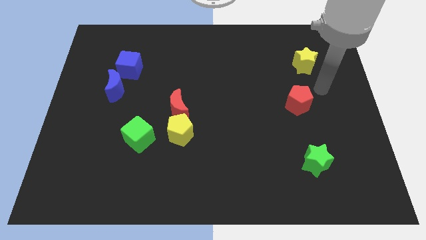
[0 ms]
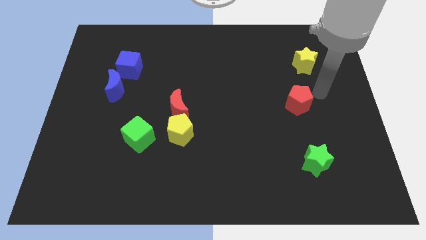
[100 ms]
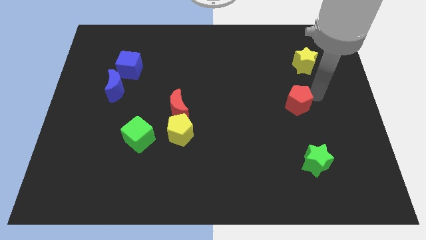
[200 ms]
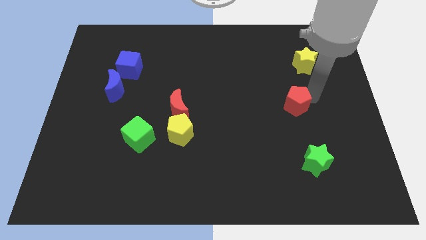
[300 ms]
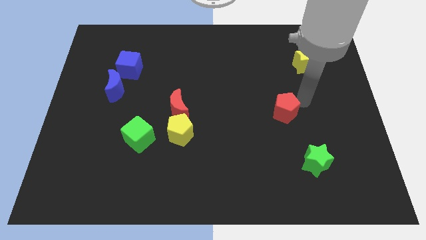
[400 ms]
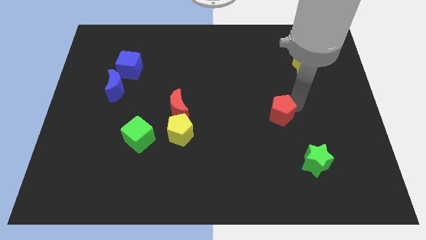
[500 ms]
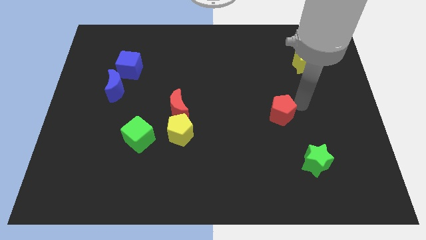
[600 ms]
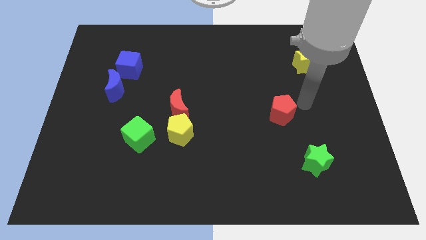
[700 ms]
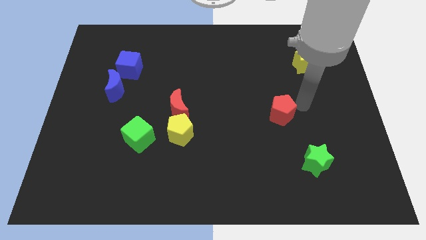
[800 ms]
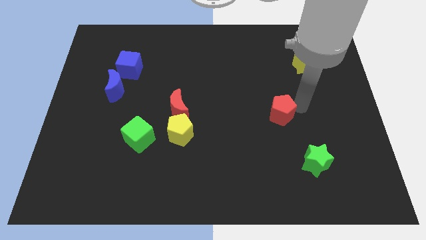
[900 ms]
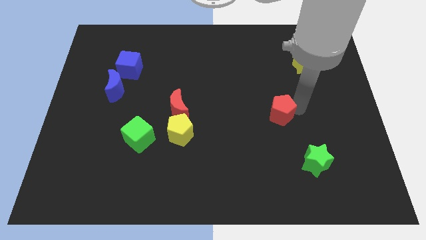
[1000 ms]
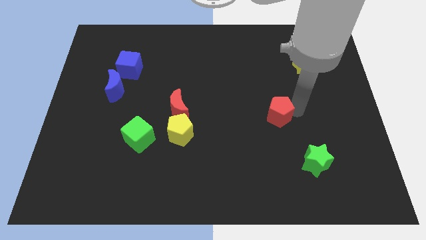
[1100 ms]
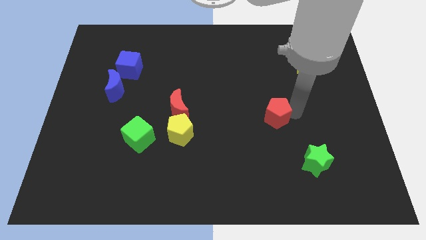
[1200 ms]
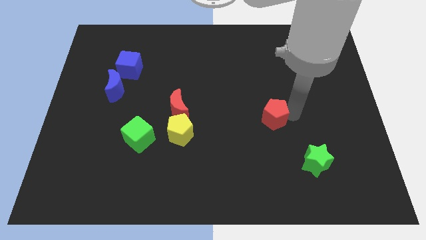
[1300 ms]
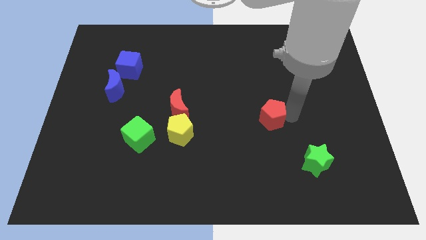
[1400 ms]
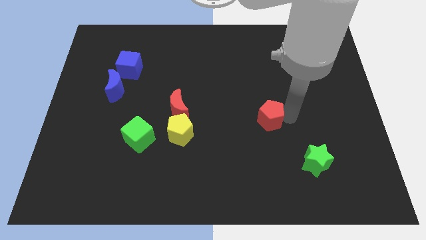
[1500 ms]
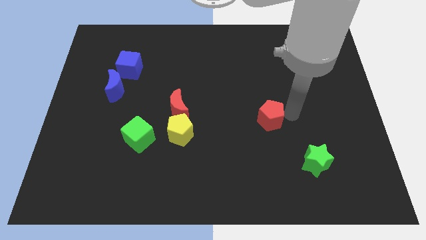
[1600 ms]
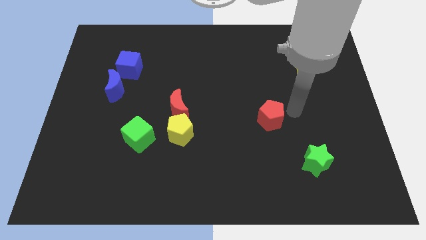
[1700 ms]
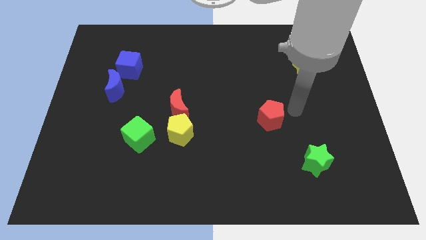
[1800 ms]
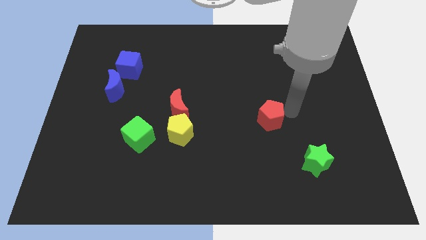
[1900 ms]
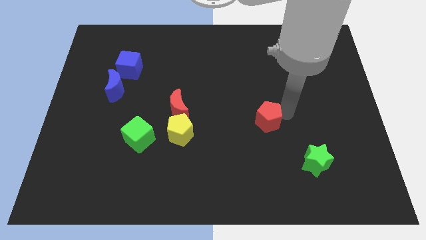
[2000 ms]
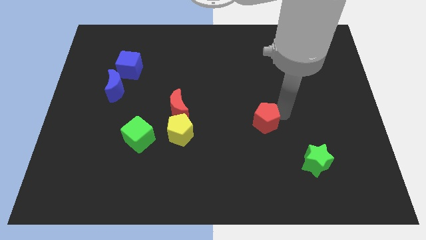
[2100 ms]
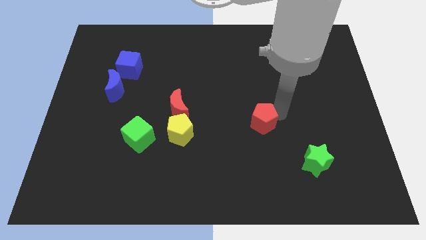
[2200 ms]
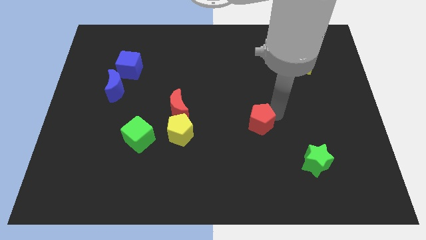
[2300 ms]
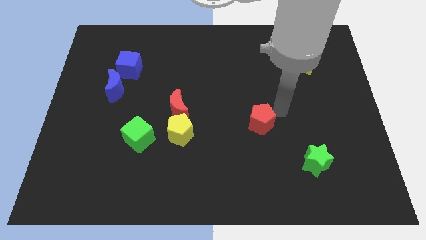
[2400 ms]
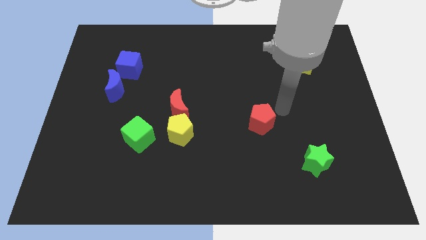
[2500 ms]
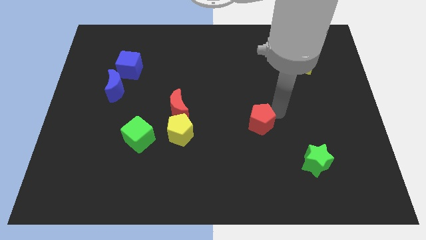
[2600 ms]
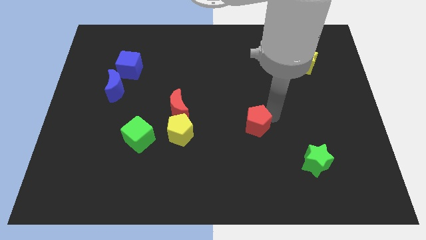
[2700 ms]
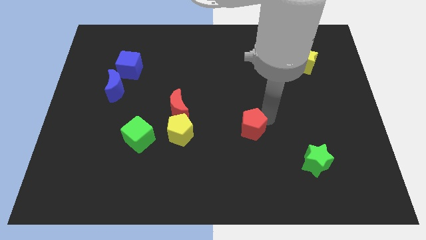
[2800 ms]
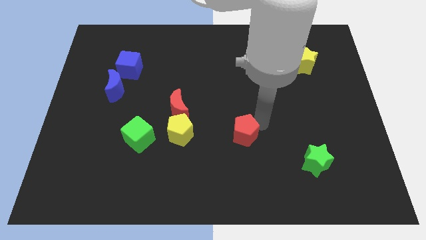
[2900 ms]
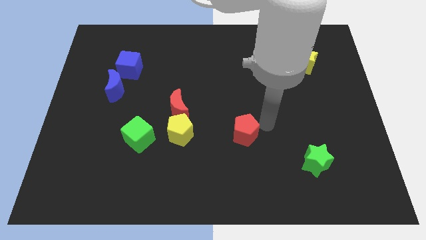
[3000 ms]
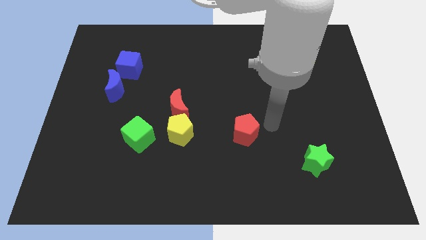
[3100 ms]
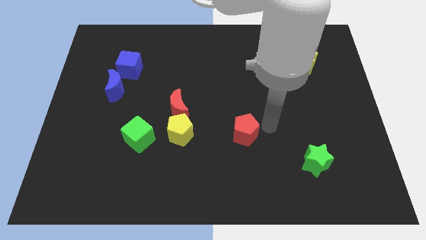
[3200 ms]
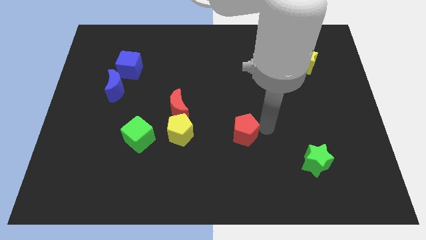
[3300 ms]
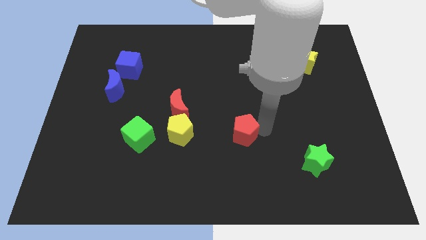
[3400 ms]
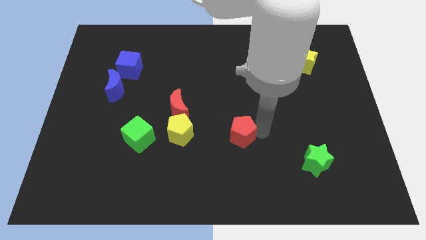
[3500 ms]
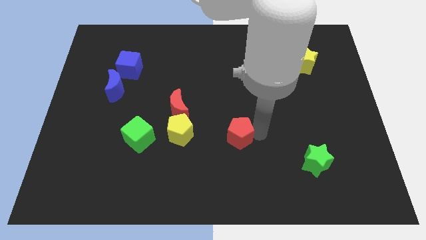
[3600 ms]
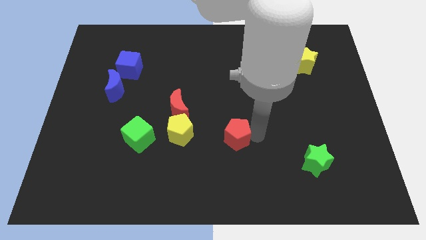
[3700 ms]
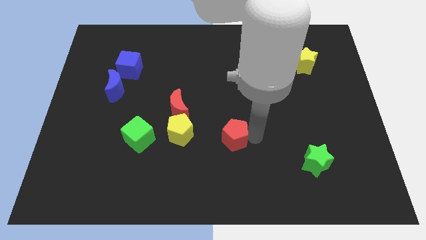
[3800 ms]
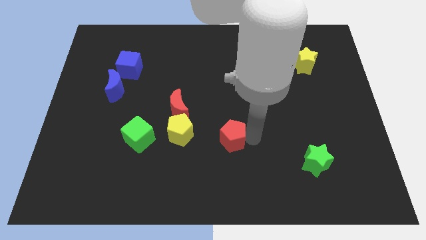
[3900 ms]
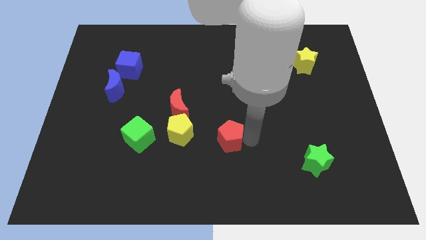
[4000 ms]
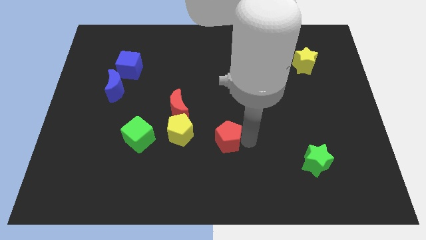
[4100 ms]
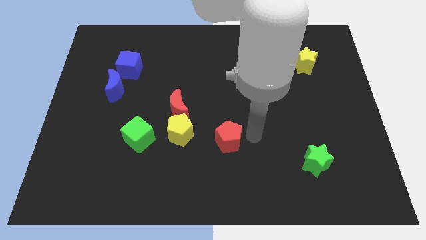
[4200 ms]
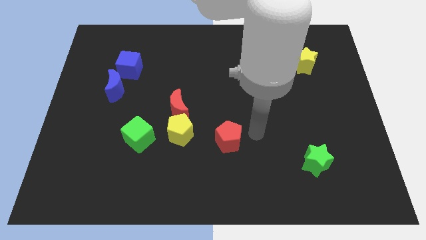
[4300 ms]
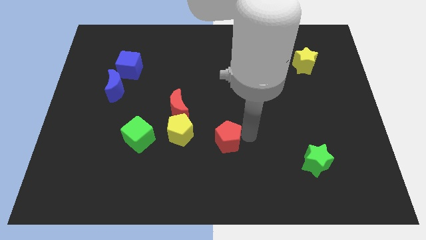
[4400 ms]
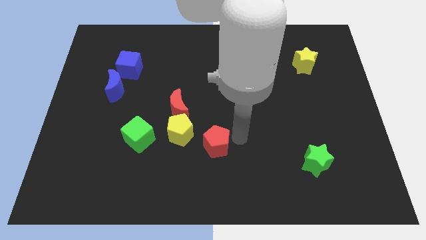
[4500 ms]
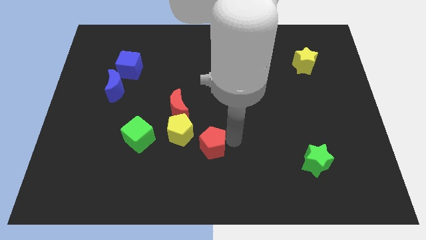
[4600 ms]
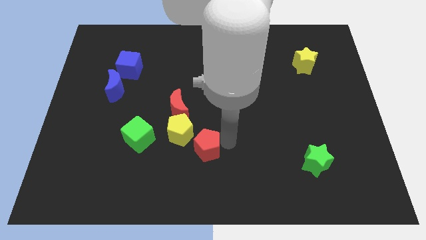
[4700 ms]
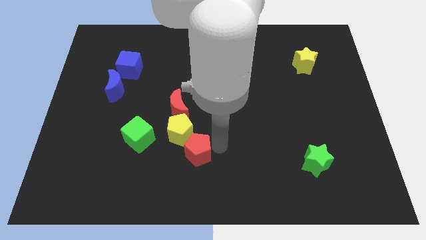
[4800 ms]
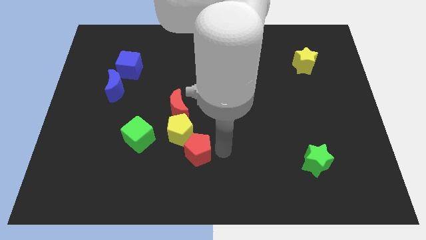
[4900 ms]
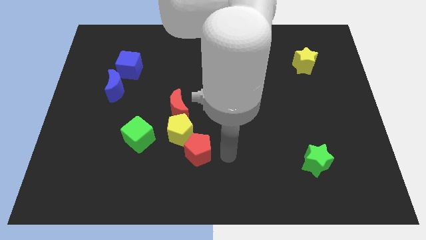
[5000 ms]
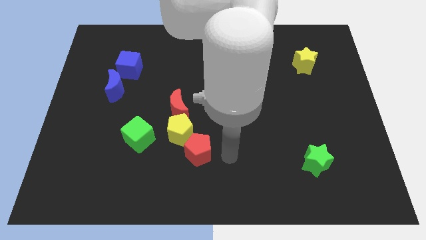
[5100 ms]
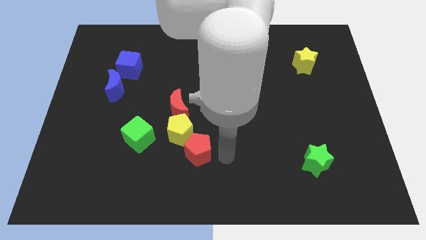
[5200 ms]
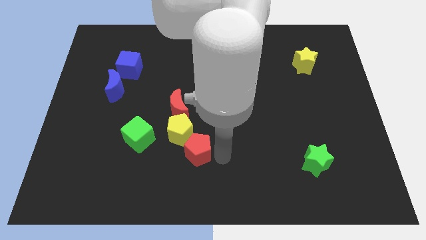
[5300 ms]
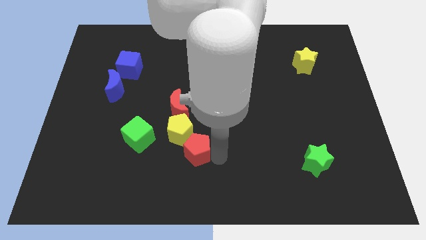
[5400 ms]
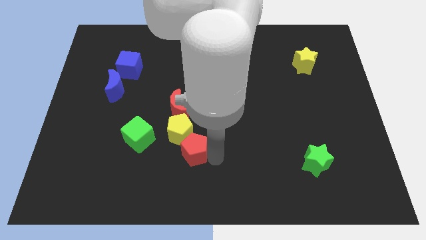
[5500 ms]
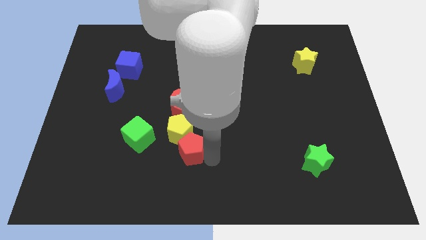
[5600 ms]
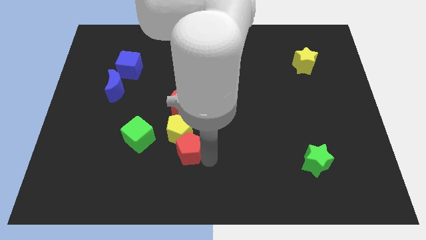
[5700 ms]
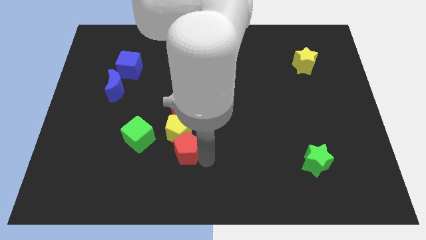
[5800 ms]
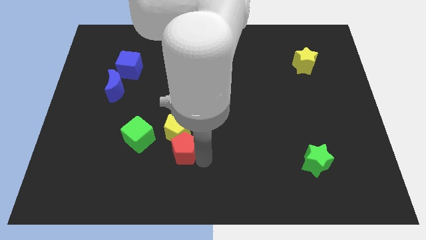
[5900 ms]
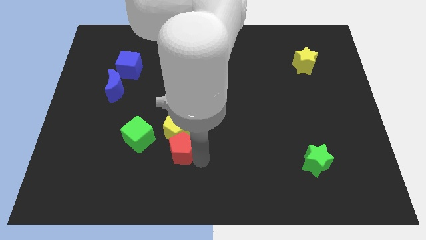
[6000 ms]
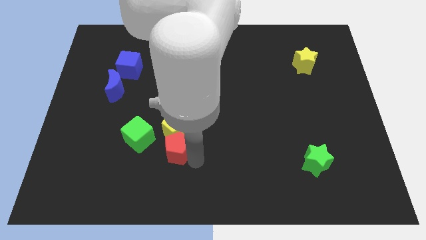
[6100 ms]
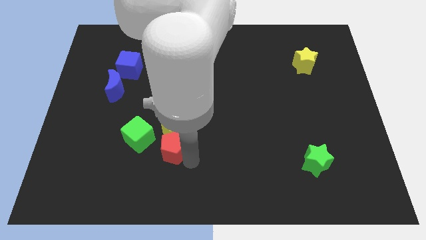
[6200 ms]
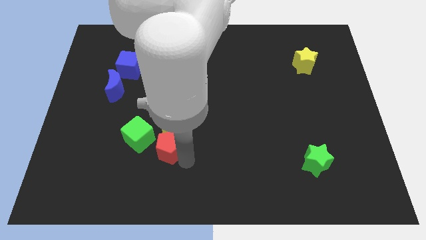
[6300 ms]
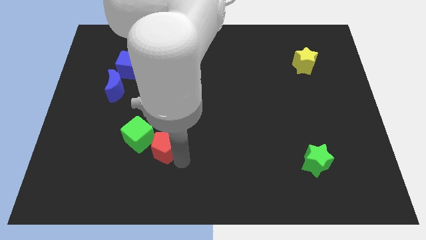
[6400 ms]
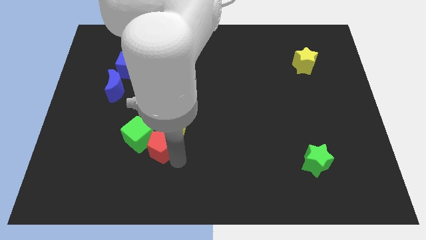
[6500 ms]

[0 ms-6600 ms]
move the red pentagon towards the green cube

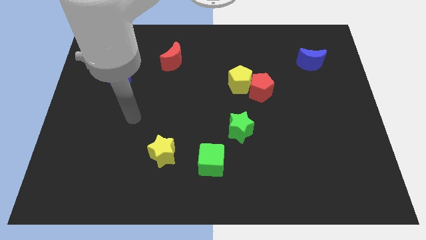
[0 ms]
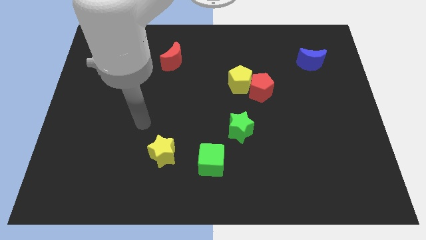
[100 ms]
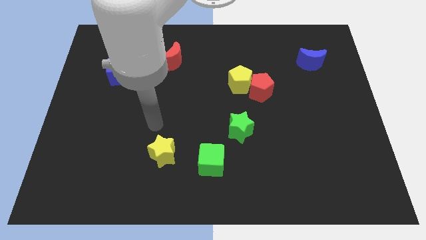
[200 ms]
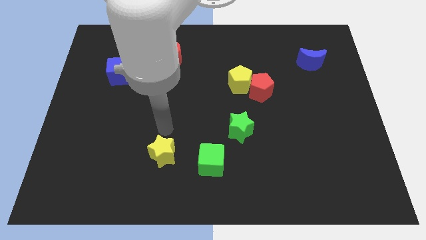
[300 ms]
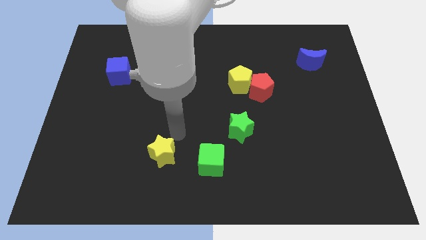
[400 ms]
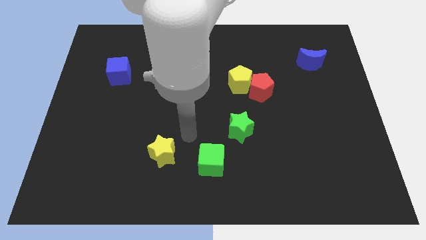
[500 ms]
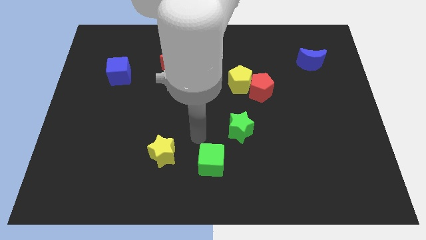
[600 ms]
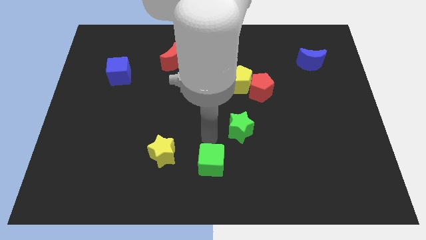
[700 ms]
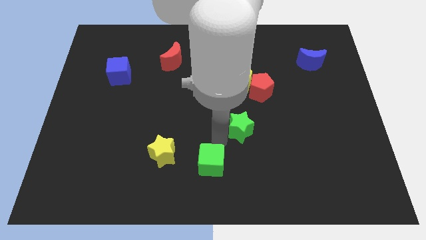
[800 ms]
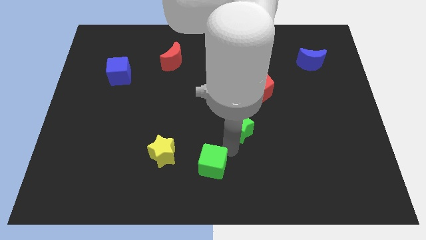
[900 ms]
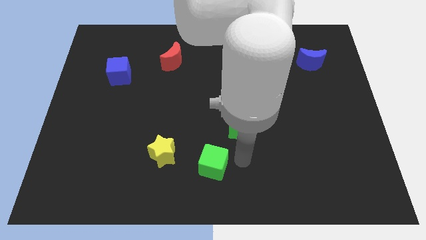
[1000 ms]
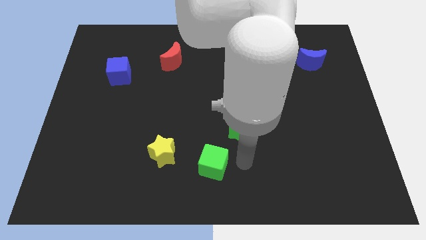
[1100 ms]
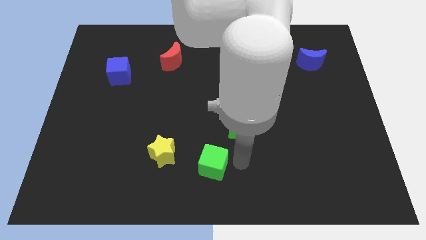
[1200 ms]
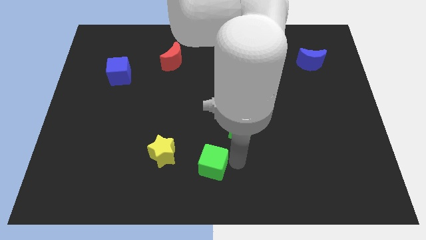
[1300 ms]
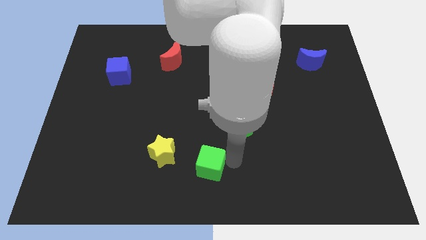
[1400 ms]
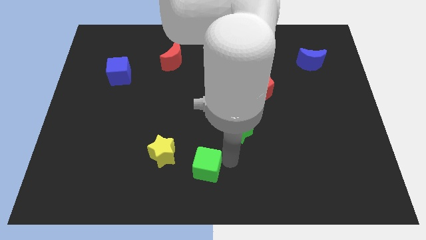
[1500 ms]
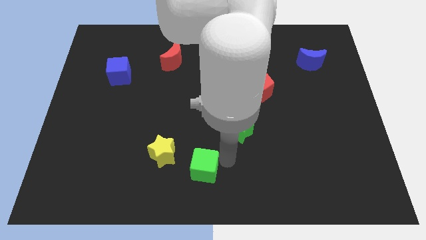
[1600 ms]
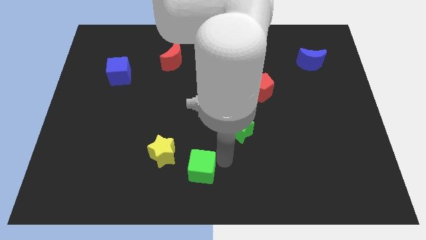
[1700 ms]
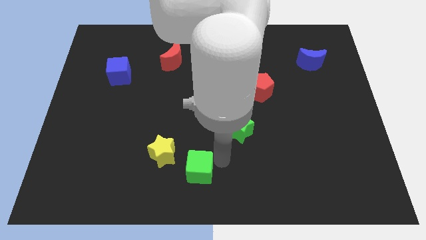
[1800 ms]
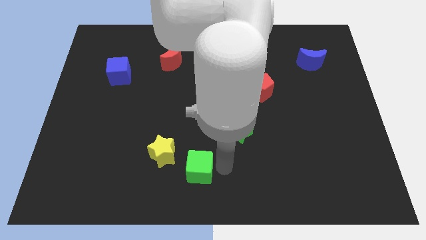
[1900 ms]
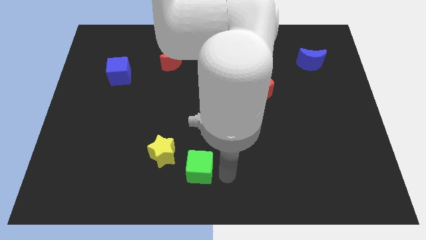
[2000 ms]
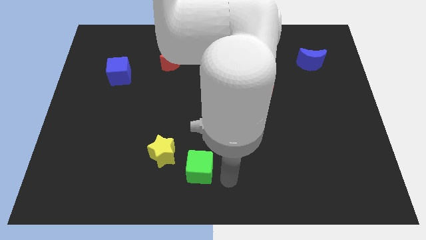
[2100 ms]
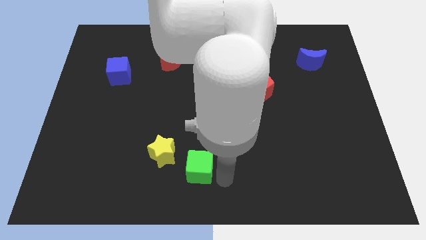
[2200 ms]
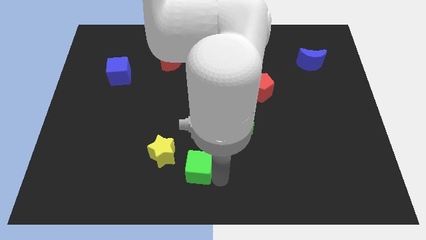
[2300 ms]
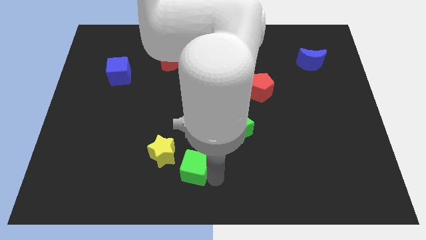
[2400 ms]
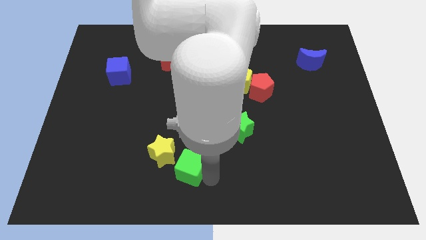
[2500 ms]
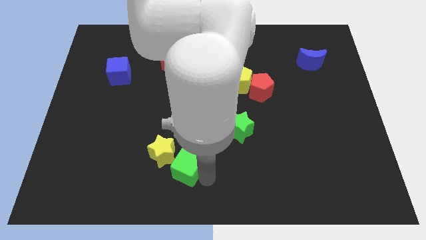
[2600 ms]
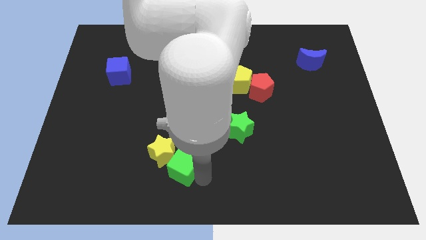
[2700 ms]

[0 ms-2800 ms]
slide the green cube next to the yellow star
